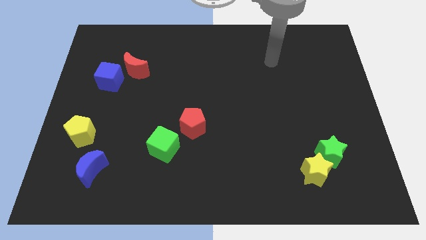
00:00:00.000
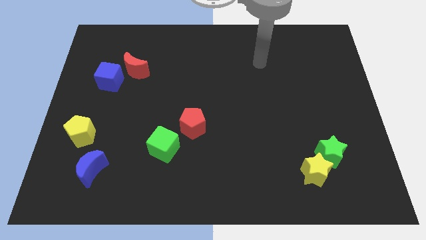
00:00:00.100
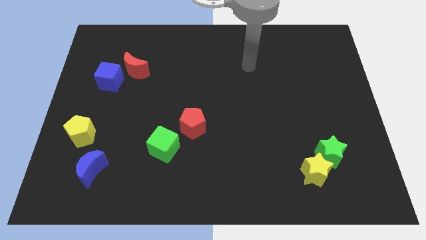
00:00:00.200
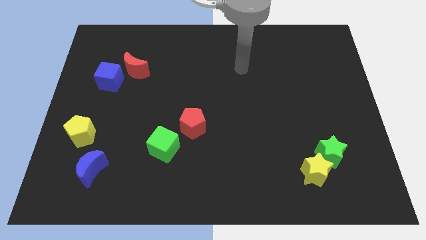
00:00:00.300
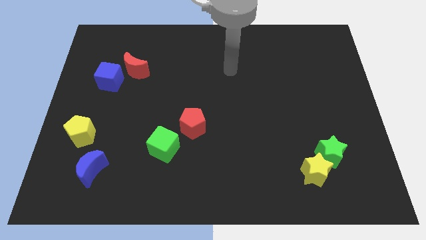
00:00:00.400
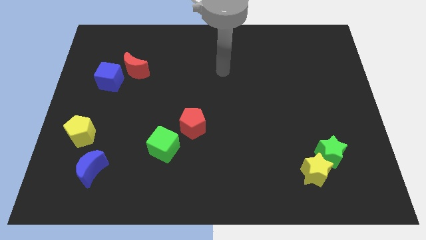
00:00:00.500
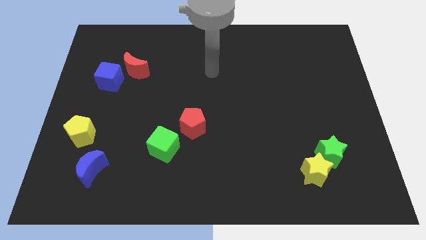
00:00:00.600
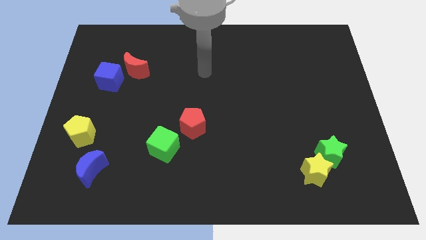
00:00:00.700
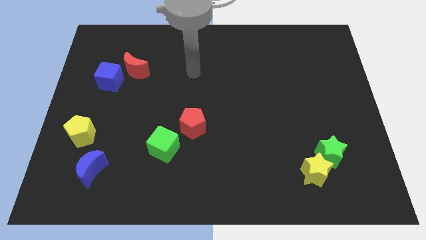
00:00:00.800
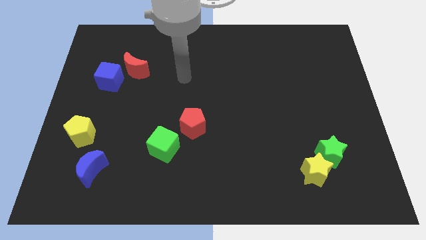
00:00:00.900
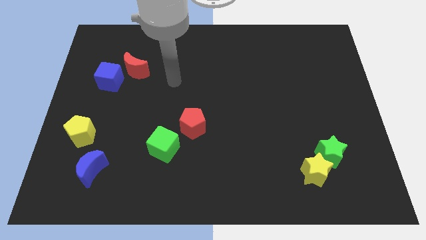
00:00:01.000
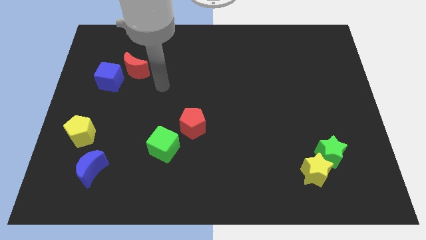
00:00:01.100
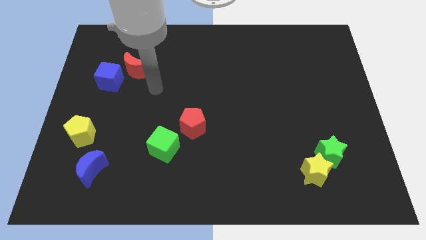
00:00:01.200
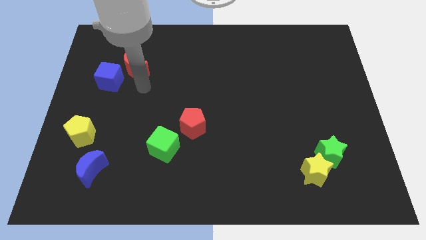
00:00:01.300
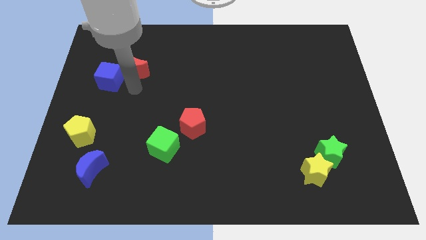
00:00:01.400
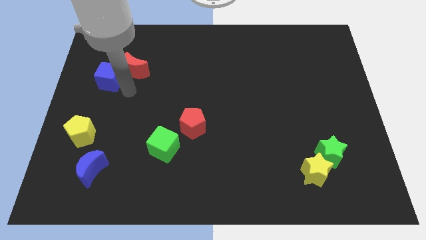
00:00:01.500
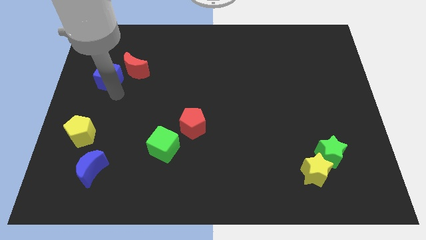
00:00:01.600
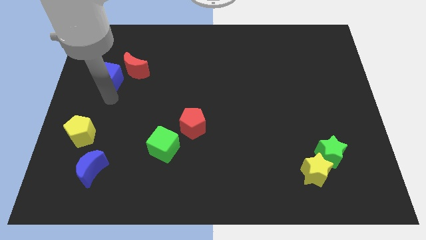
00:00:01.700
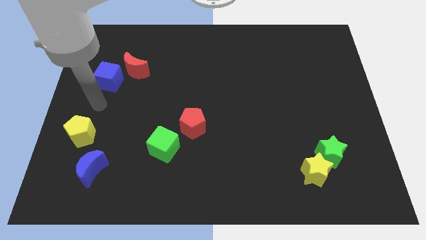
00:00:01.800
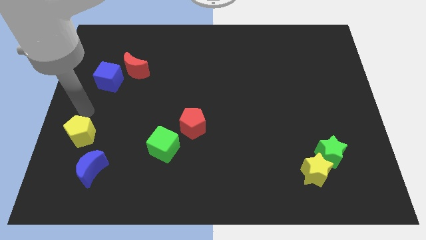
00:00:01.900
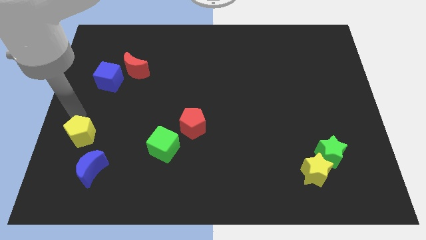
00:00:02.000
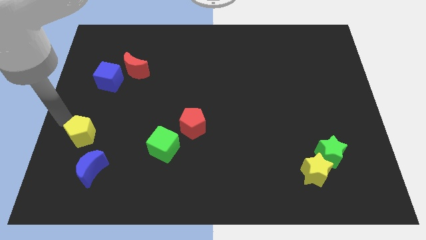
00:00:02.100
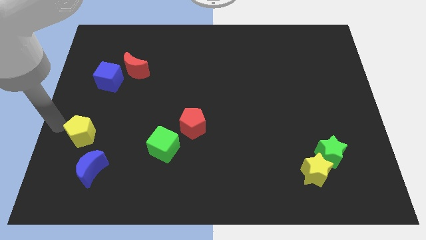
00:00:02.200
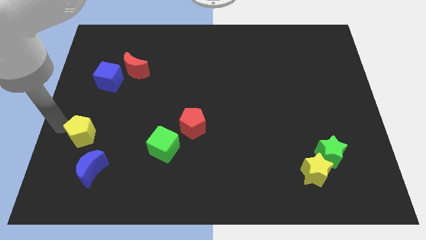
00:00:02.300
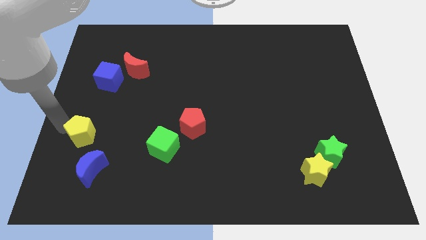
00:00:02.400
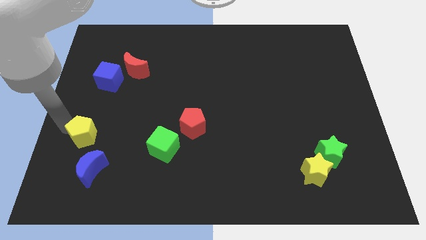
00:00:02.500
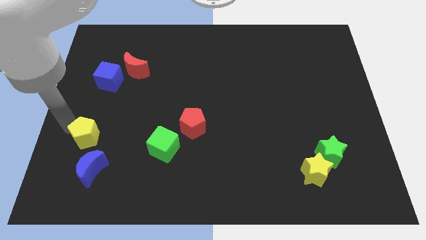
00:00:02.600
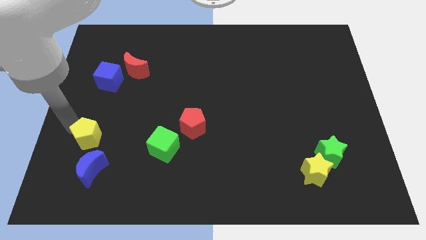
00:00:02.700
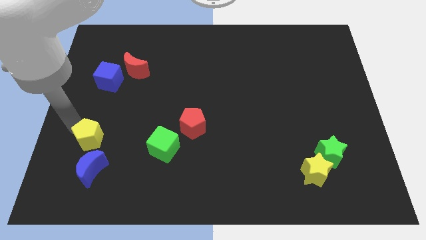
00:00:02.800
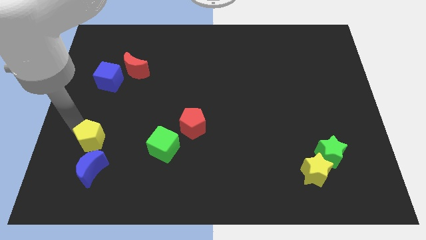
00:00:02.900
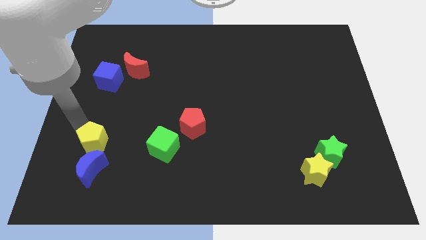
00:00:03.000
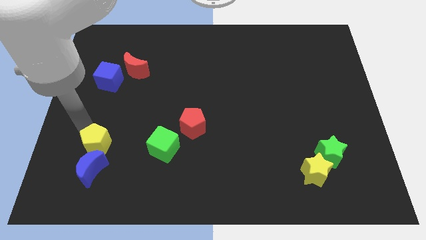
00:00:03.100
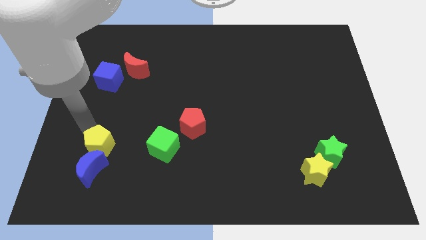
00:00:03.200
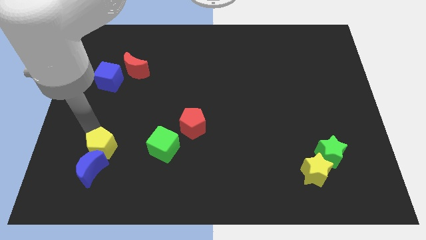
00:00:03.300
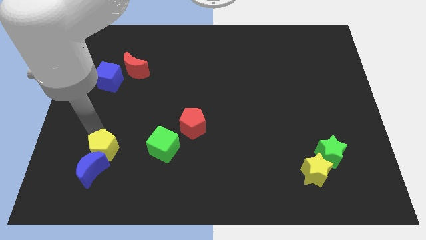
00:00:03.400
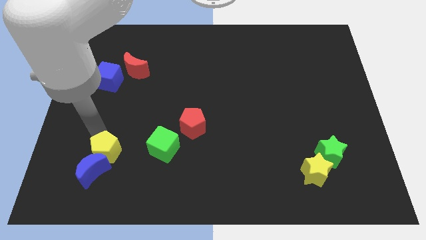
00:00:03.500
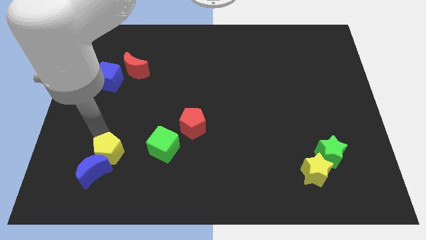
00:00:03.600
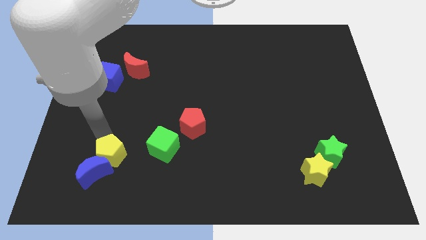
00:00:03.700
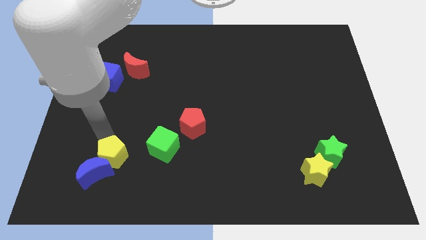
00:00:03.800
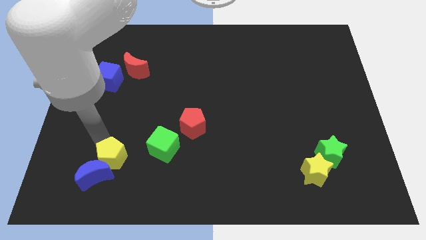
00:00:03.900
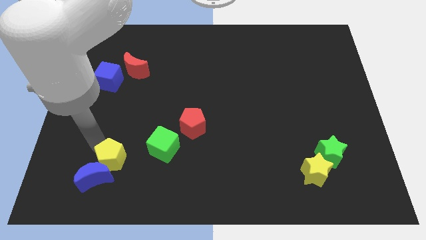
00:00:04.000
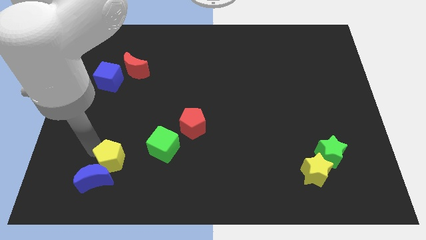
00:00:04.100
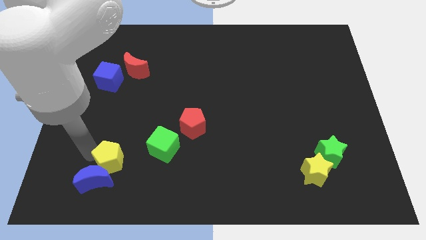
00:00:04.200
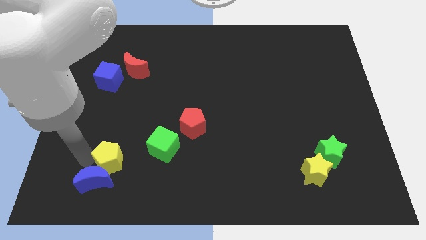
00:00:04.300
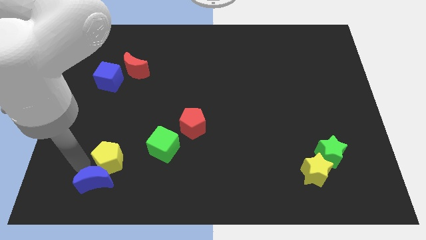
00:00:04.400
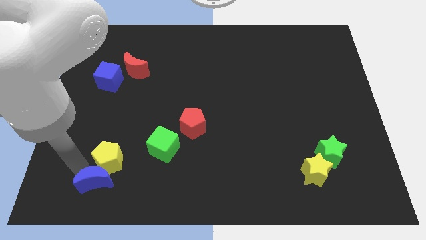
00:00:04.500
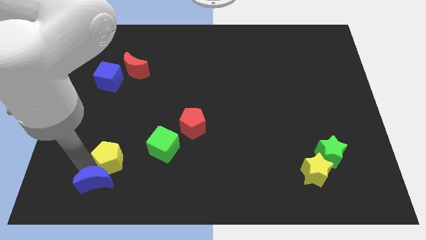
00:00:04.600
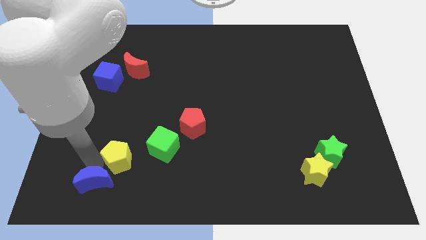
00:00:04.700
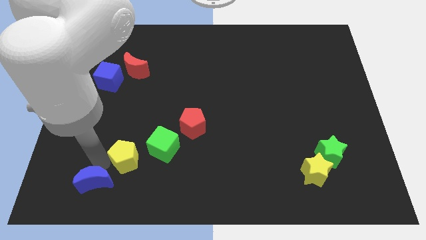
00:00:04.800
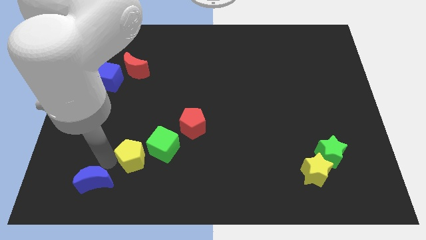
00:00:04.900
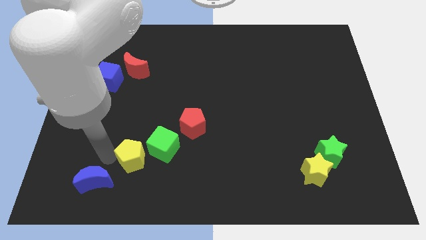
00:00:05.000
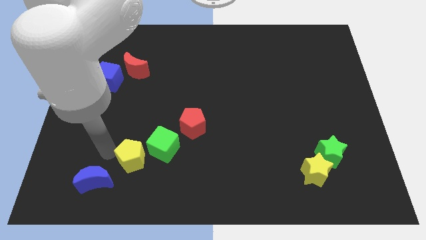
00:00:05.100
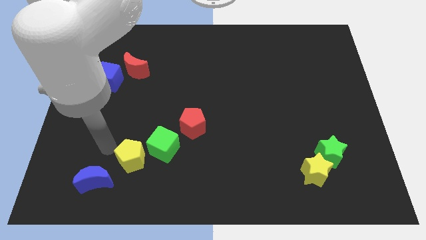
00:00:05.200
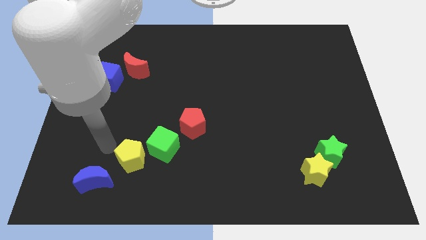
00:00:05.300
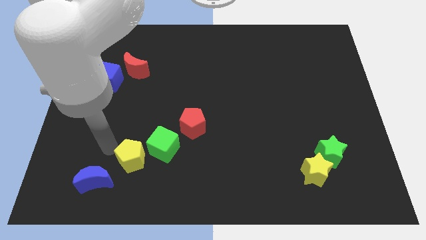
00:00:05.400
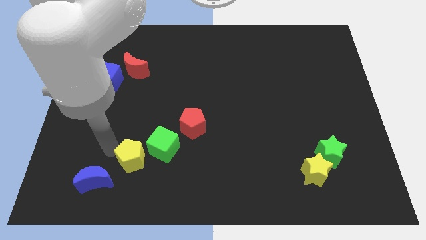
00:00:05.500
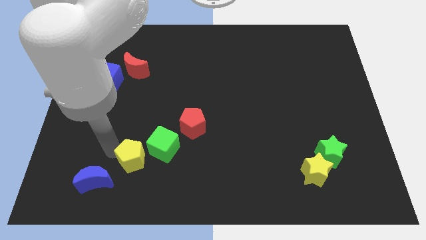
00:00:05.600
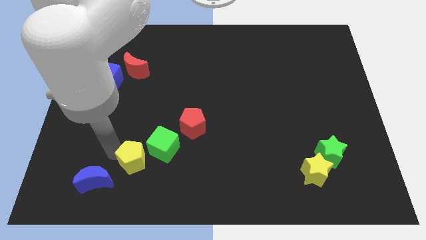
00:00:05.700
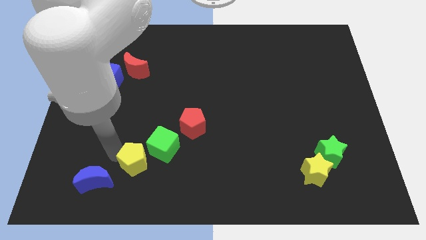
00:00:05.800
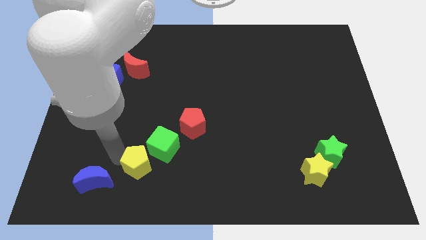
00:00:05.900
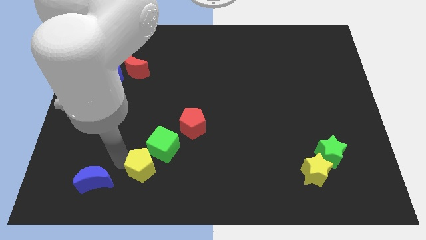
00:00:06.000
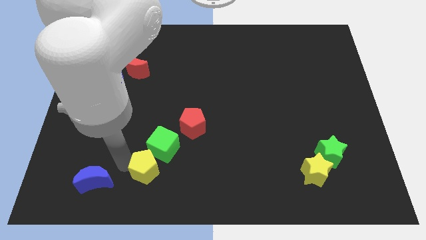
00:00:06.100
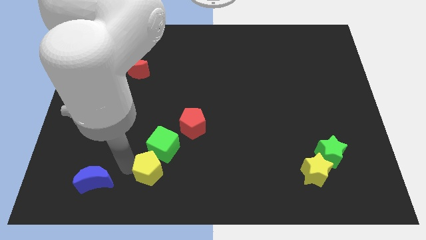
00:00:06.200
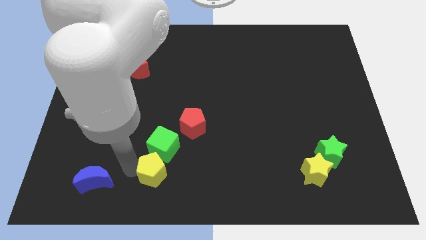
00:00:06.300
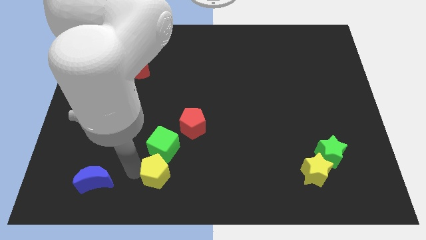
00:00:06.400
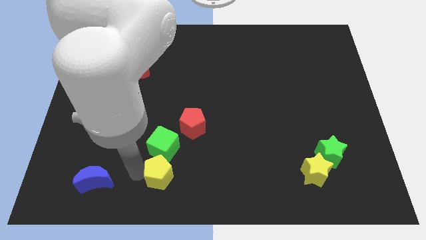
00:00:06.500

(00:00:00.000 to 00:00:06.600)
move the yellow pentagon to the bottom side

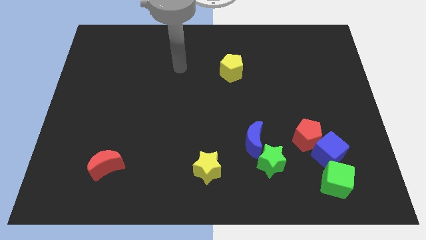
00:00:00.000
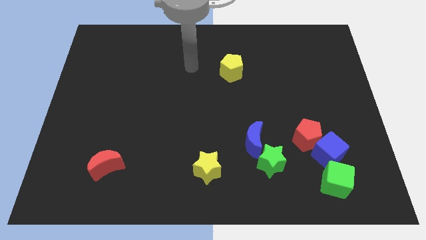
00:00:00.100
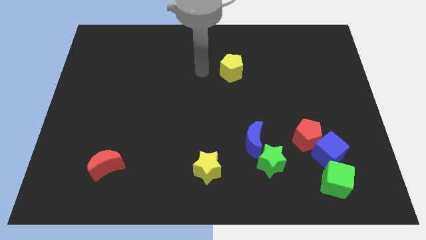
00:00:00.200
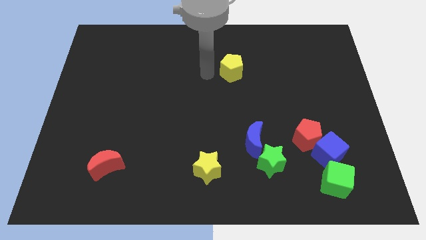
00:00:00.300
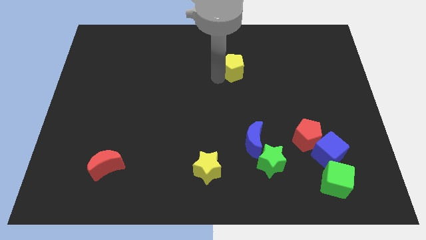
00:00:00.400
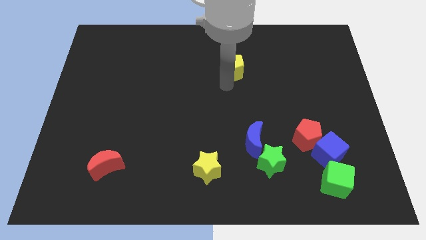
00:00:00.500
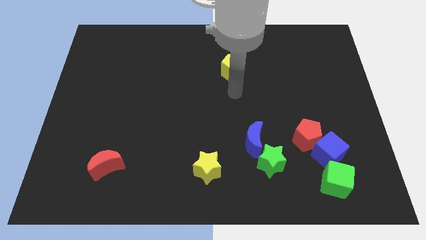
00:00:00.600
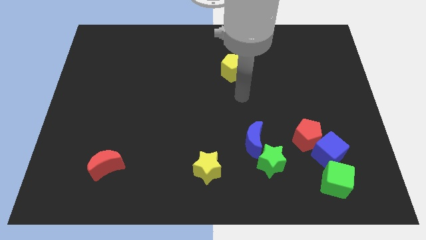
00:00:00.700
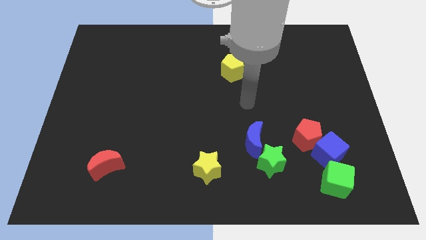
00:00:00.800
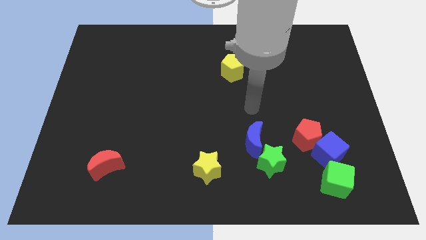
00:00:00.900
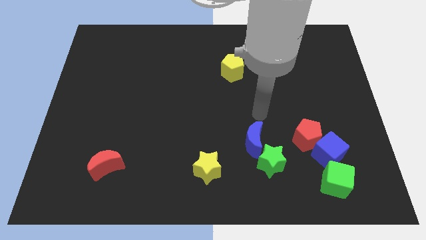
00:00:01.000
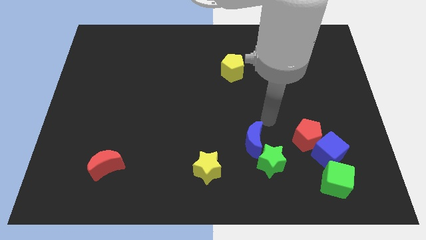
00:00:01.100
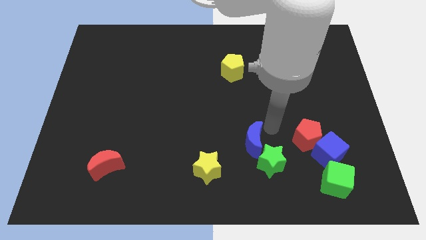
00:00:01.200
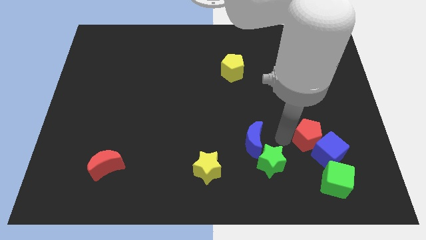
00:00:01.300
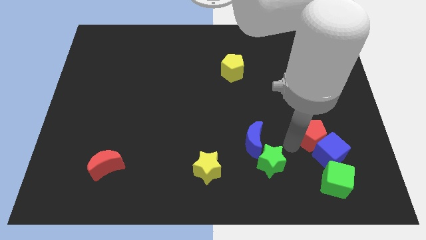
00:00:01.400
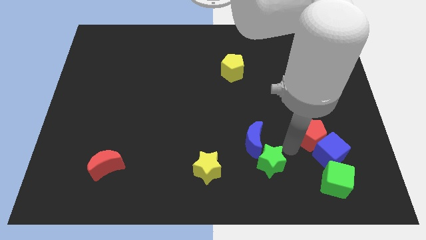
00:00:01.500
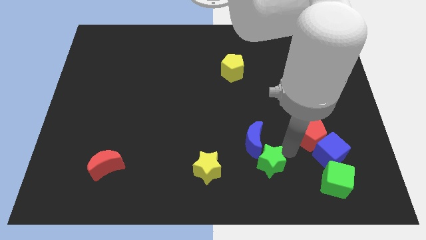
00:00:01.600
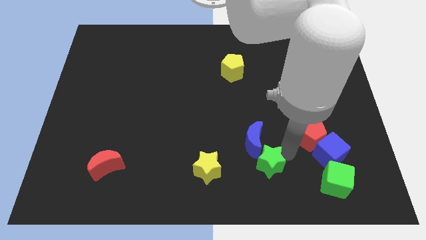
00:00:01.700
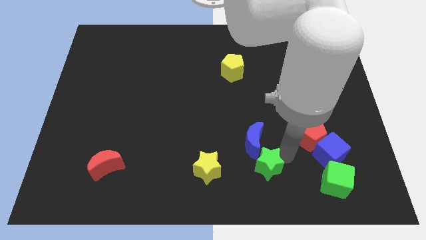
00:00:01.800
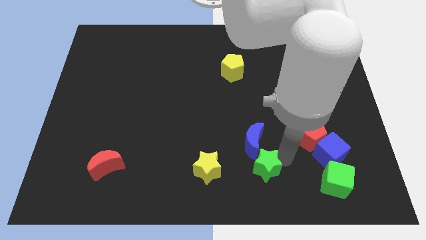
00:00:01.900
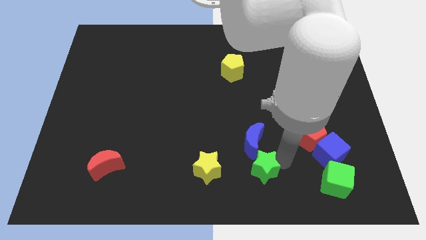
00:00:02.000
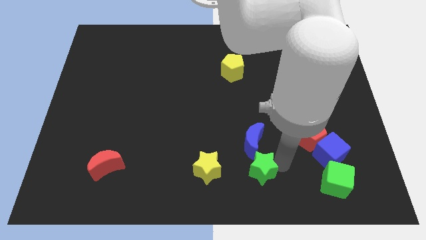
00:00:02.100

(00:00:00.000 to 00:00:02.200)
push the green star to the bottom side
